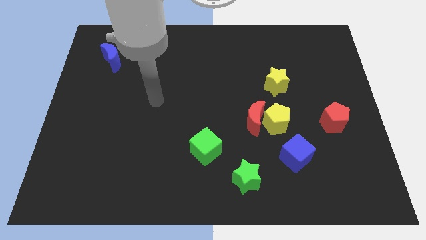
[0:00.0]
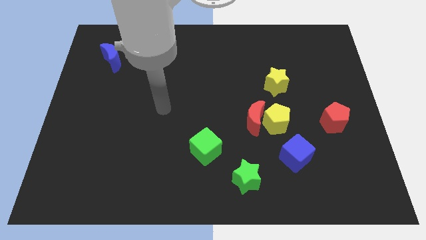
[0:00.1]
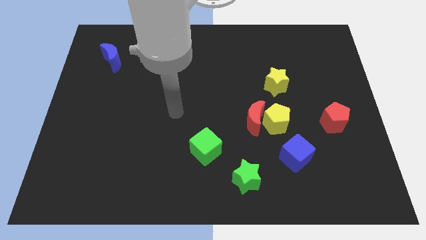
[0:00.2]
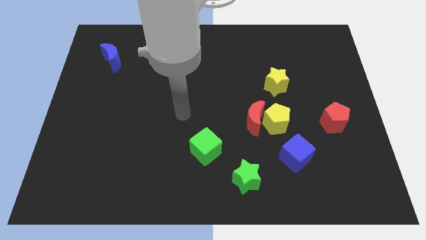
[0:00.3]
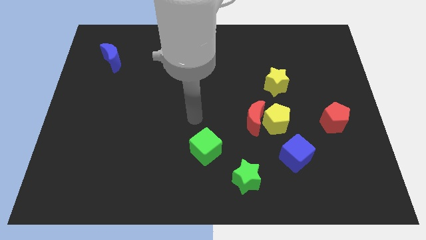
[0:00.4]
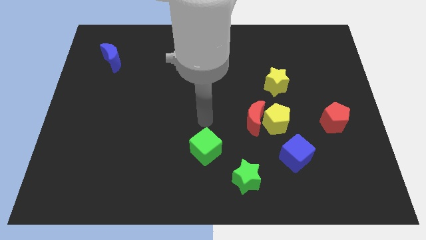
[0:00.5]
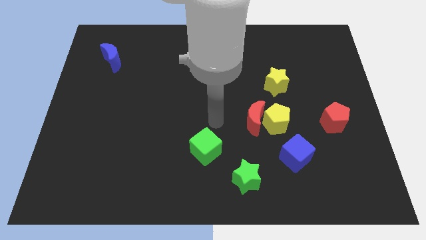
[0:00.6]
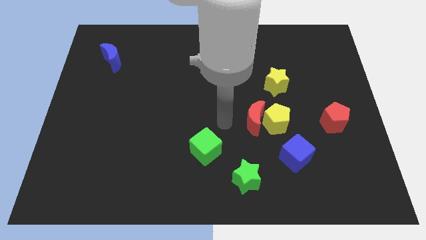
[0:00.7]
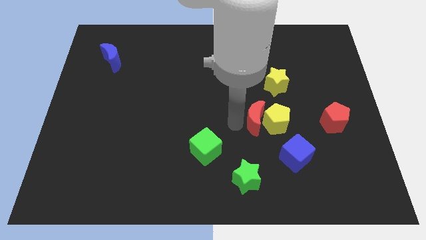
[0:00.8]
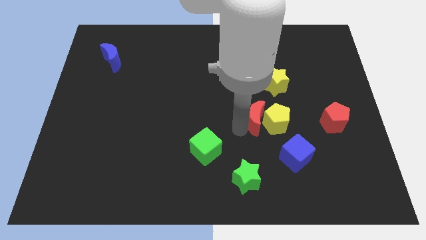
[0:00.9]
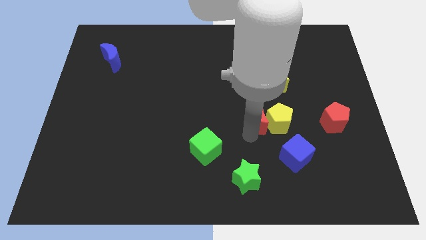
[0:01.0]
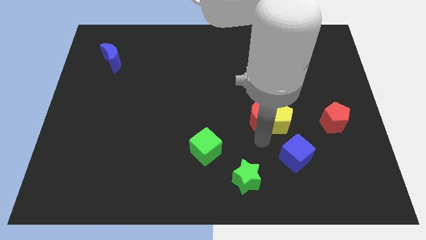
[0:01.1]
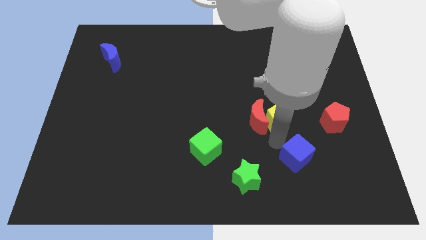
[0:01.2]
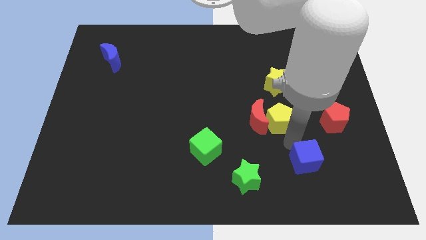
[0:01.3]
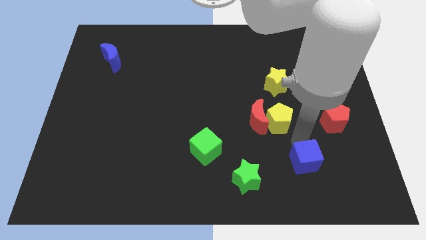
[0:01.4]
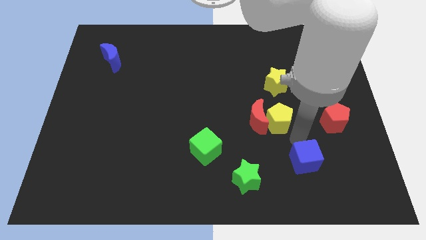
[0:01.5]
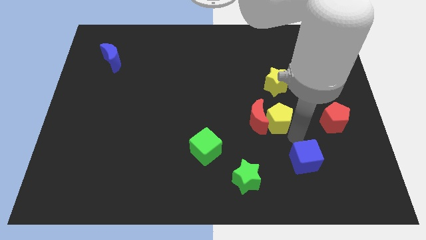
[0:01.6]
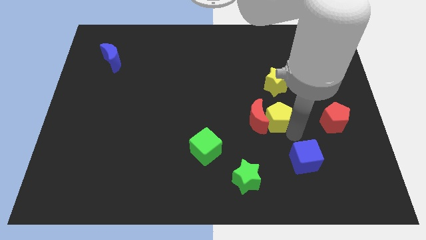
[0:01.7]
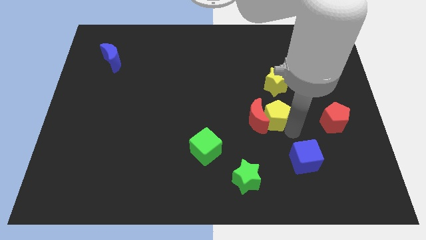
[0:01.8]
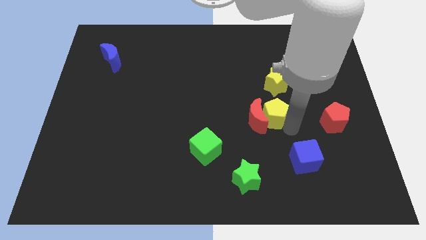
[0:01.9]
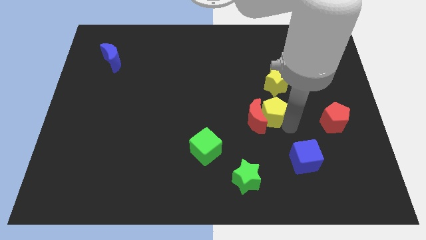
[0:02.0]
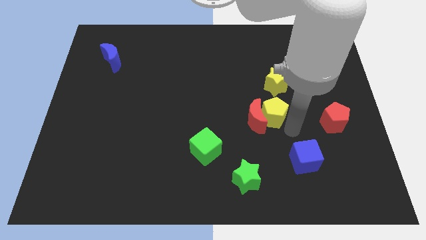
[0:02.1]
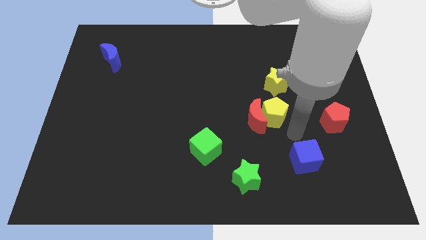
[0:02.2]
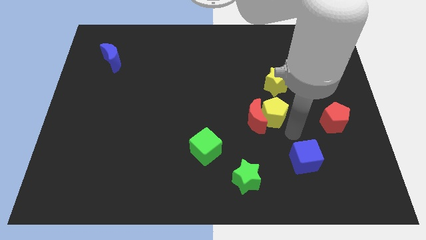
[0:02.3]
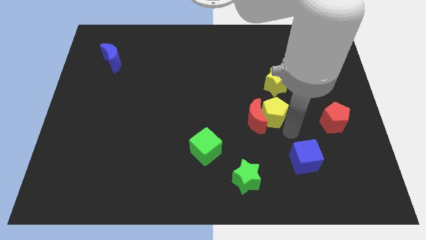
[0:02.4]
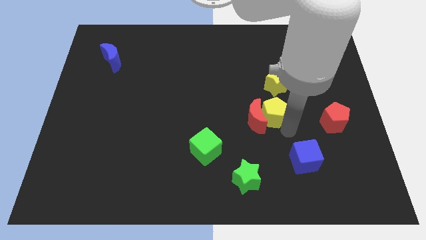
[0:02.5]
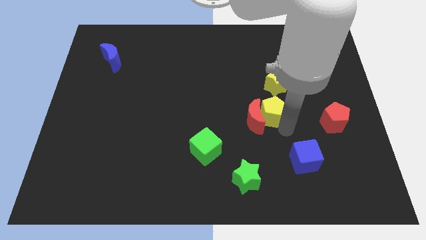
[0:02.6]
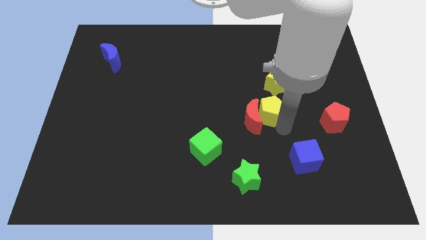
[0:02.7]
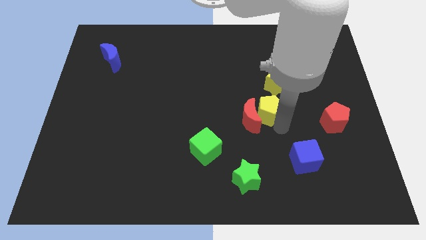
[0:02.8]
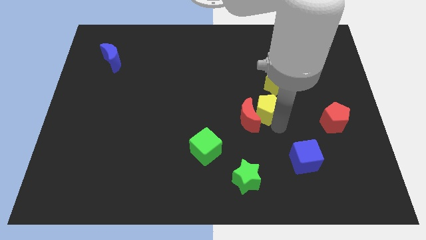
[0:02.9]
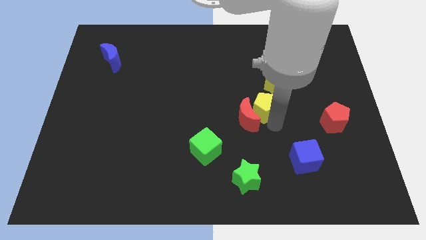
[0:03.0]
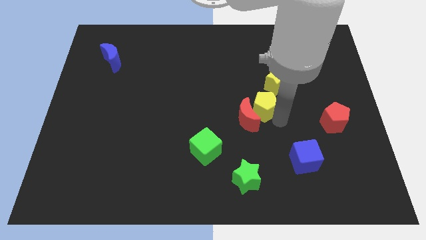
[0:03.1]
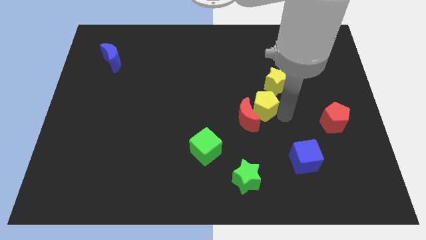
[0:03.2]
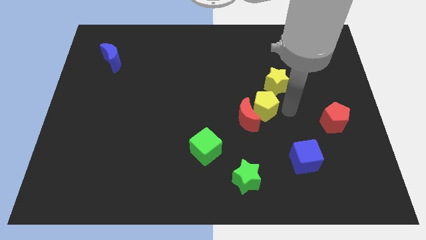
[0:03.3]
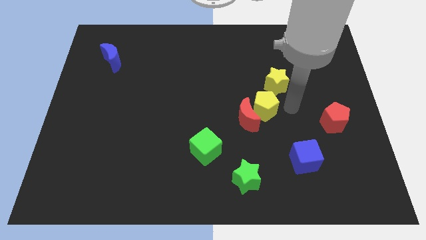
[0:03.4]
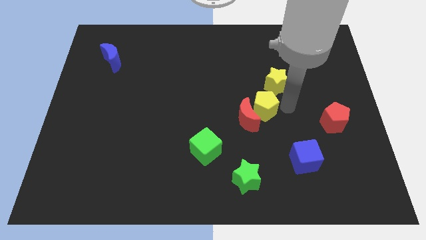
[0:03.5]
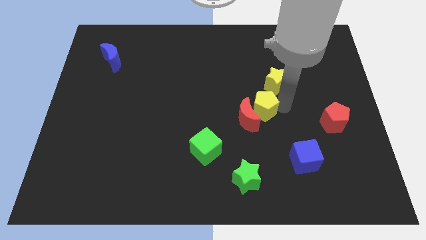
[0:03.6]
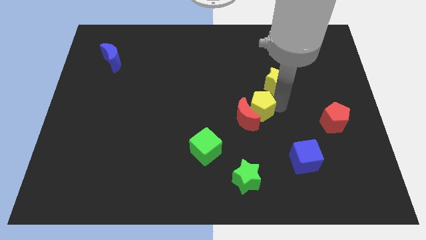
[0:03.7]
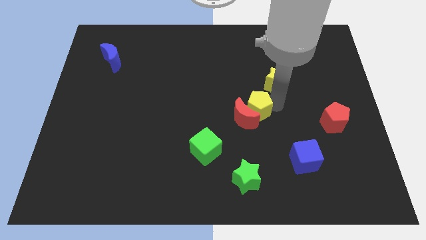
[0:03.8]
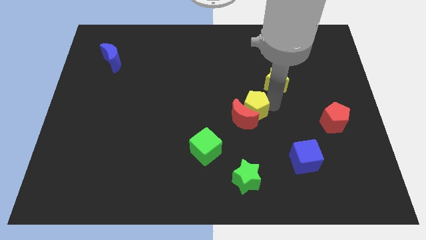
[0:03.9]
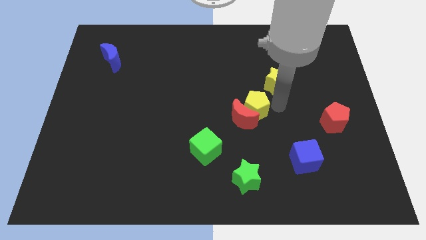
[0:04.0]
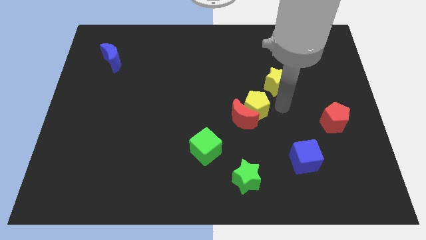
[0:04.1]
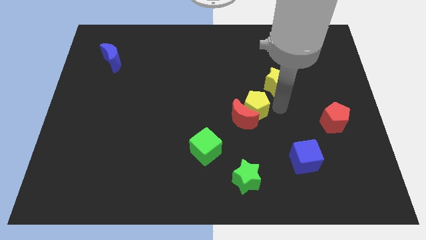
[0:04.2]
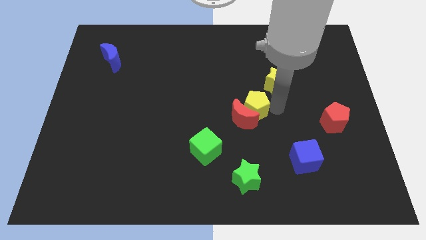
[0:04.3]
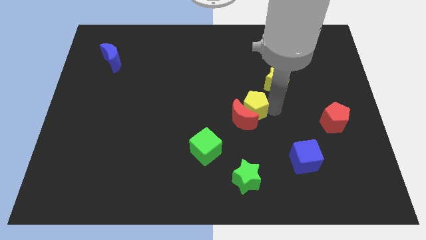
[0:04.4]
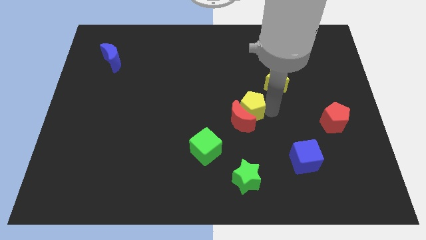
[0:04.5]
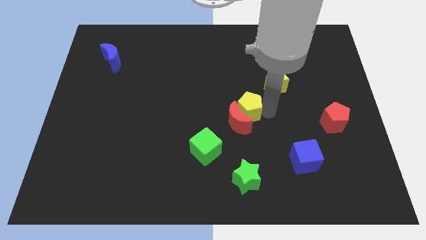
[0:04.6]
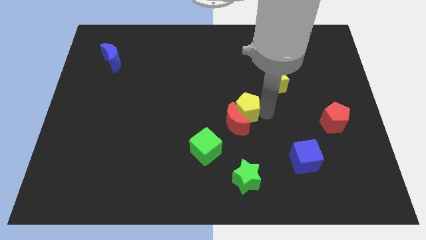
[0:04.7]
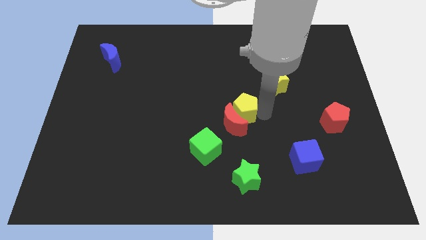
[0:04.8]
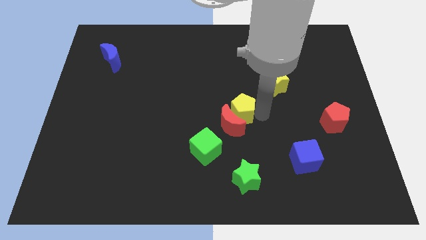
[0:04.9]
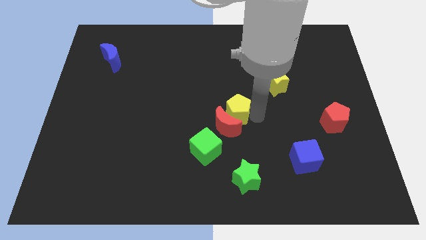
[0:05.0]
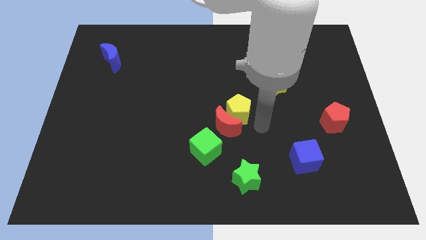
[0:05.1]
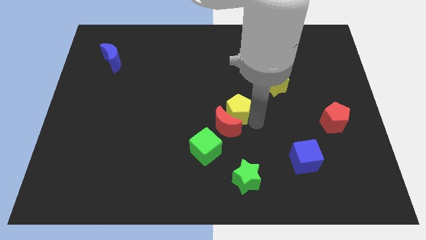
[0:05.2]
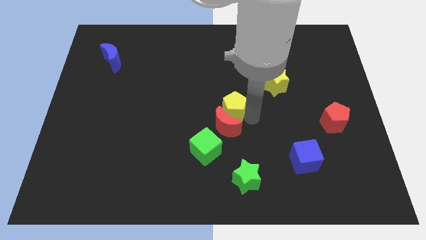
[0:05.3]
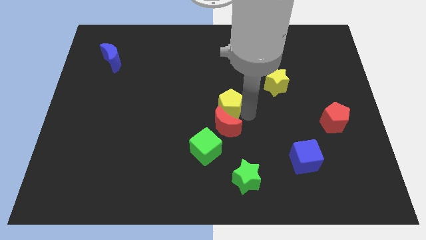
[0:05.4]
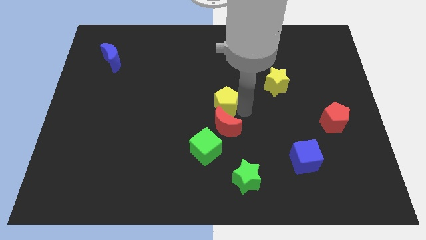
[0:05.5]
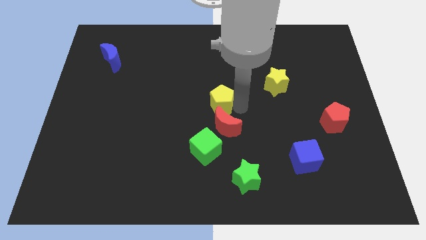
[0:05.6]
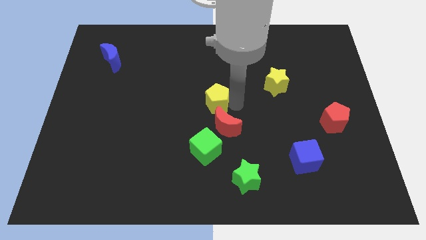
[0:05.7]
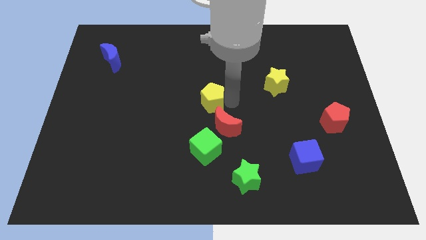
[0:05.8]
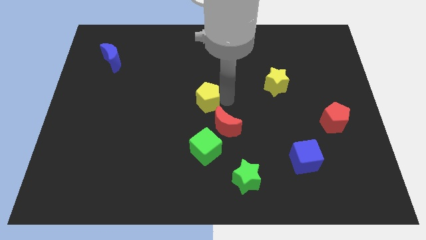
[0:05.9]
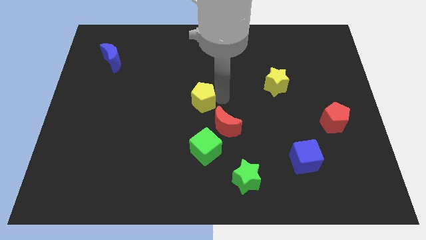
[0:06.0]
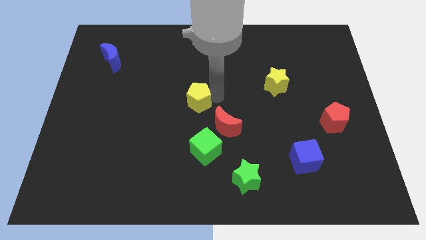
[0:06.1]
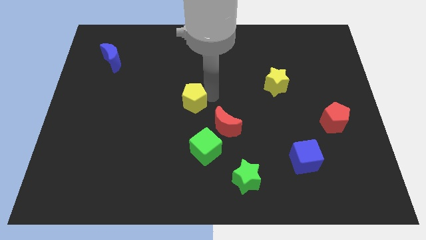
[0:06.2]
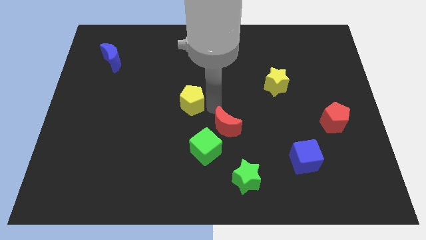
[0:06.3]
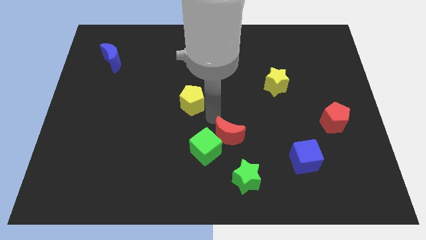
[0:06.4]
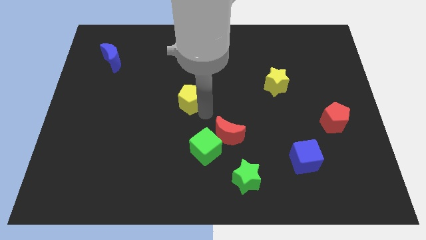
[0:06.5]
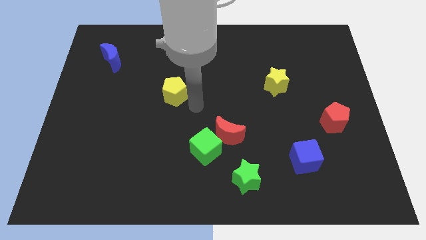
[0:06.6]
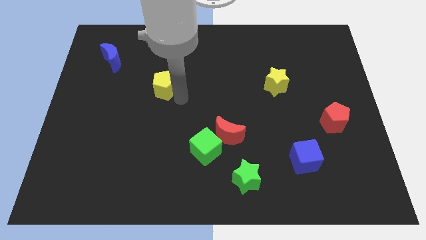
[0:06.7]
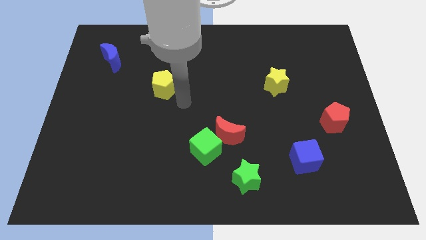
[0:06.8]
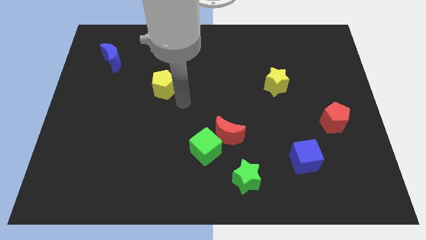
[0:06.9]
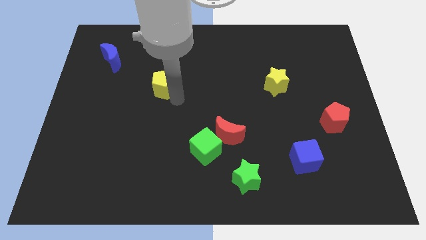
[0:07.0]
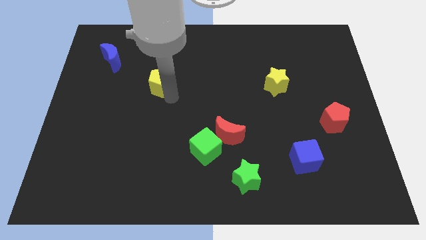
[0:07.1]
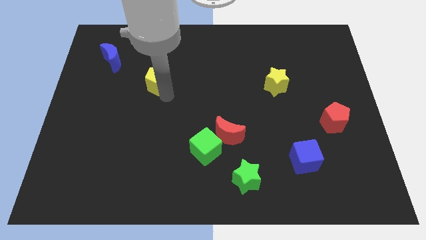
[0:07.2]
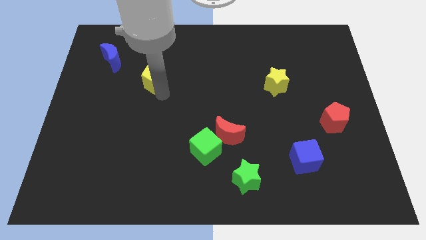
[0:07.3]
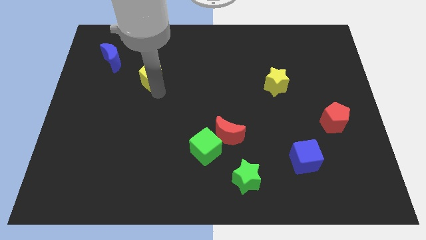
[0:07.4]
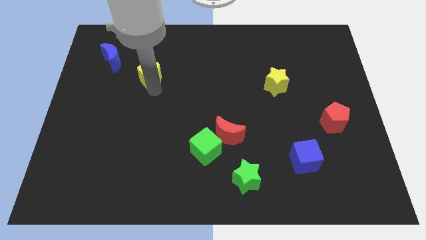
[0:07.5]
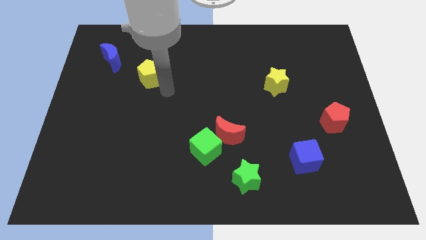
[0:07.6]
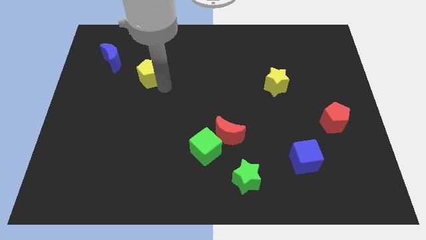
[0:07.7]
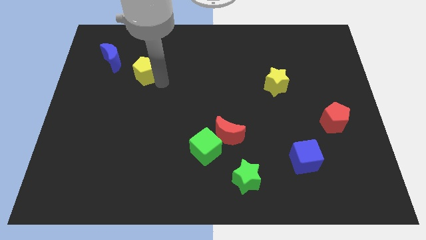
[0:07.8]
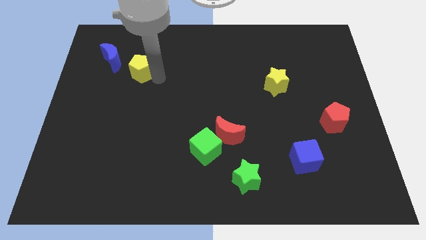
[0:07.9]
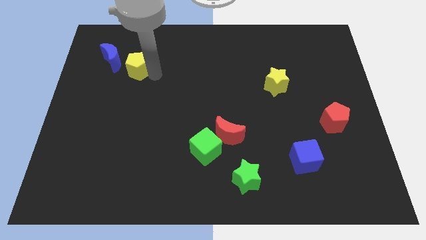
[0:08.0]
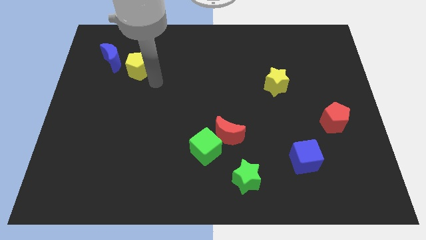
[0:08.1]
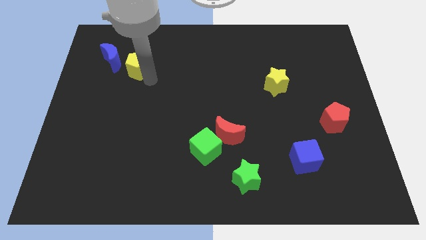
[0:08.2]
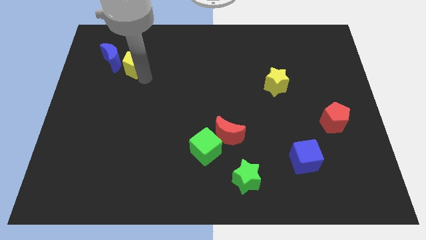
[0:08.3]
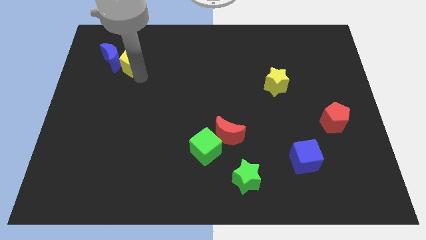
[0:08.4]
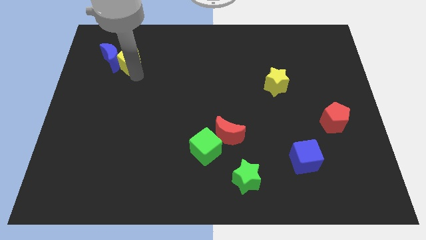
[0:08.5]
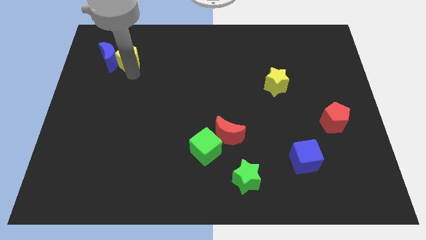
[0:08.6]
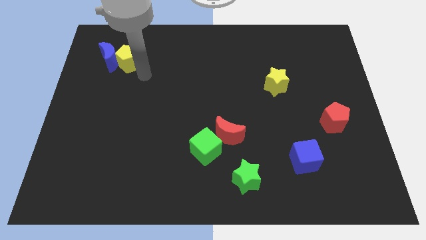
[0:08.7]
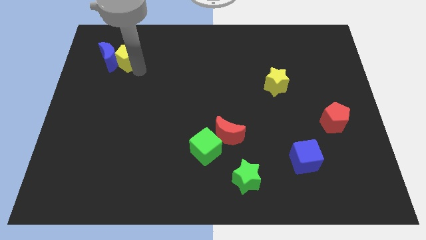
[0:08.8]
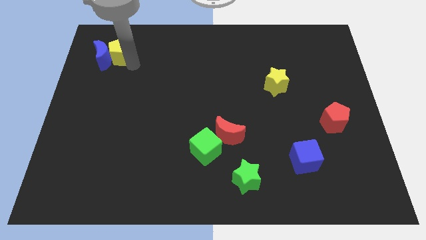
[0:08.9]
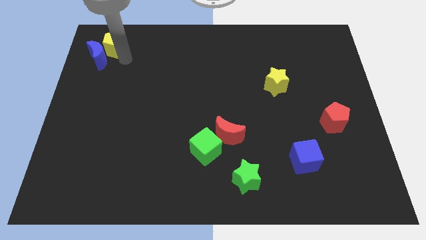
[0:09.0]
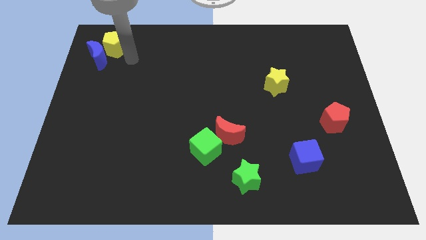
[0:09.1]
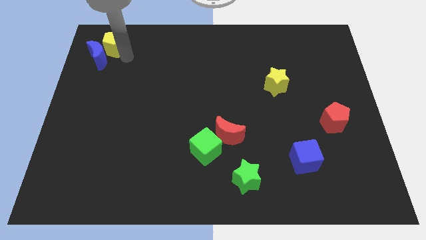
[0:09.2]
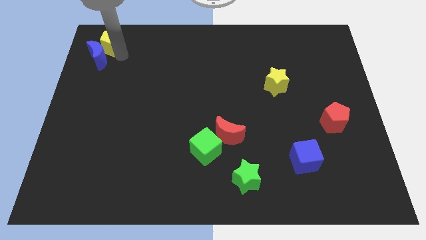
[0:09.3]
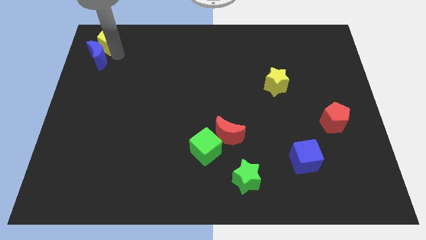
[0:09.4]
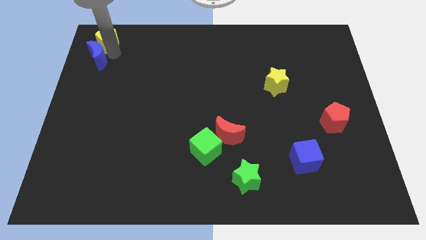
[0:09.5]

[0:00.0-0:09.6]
put the yellow pentagon to the top left
